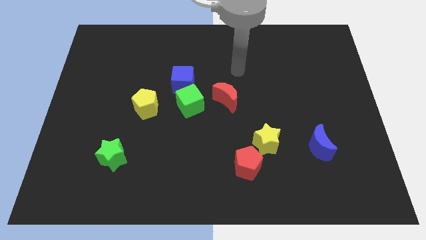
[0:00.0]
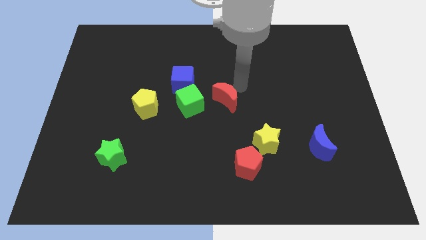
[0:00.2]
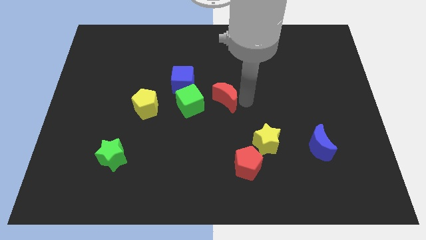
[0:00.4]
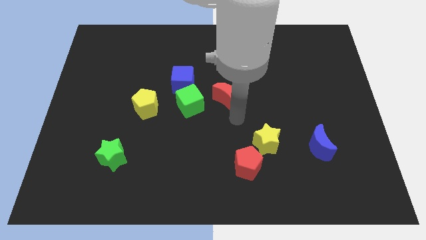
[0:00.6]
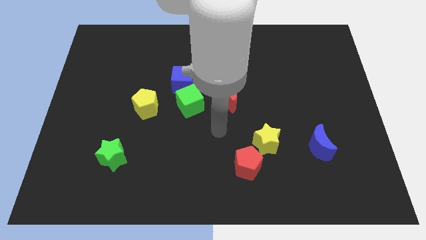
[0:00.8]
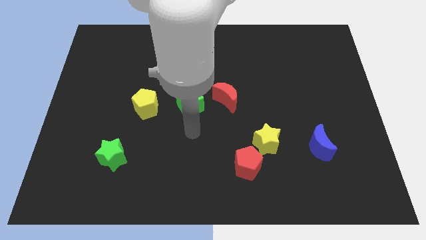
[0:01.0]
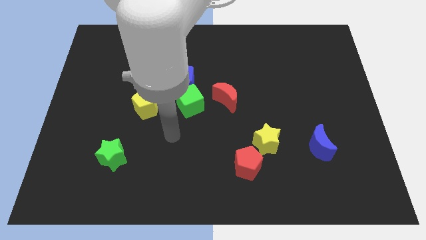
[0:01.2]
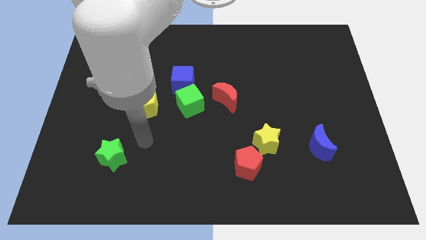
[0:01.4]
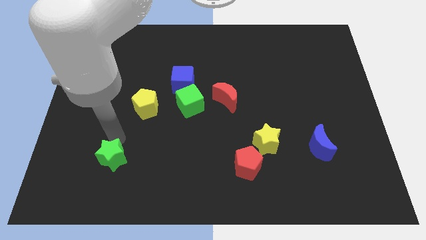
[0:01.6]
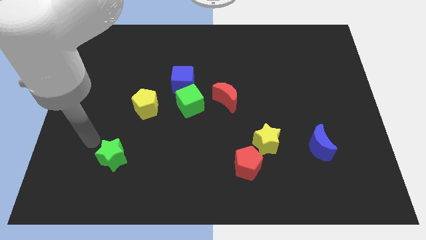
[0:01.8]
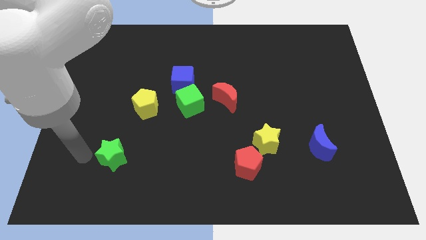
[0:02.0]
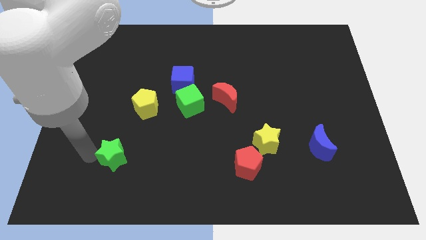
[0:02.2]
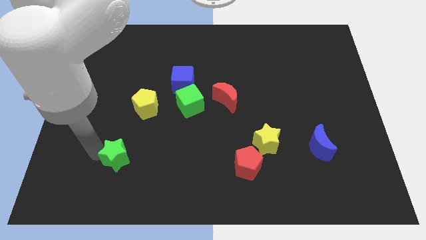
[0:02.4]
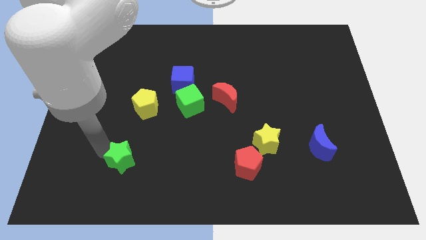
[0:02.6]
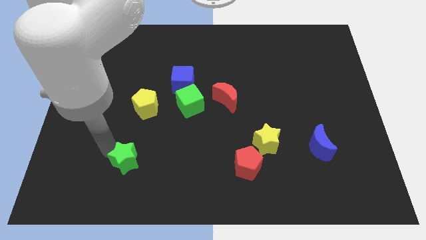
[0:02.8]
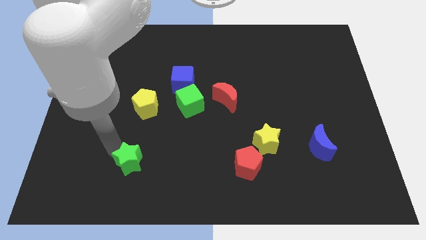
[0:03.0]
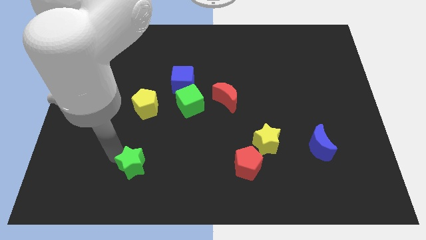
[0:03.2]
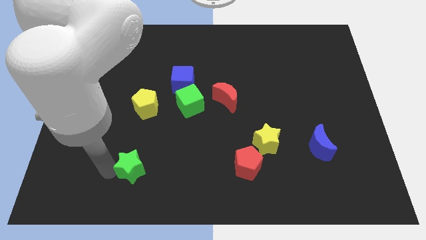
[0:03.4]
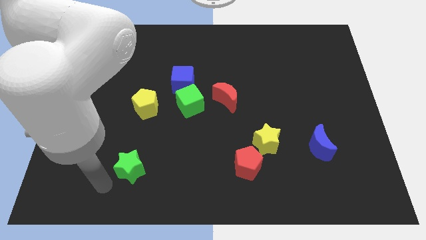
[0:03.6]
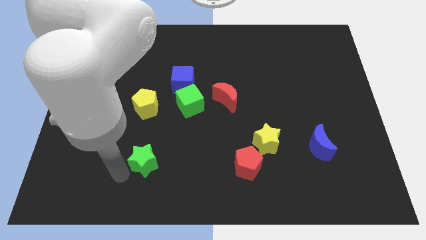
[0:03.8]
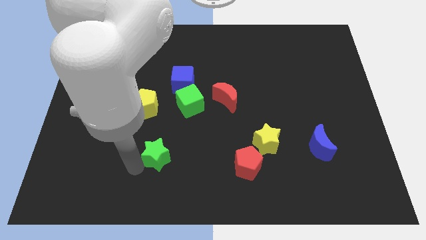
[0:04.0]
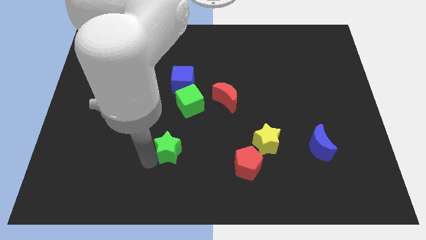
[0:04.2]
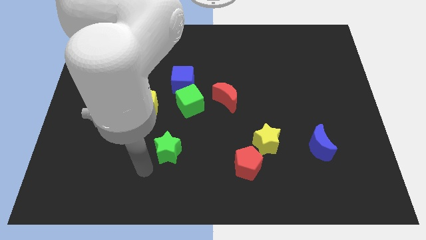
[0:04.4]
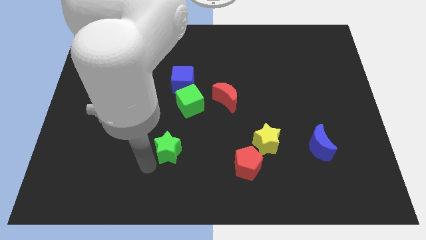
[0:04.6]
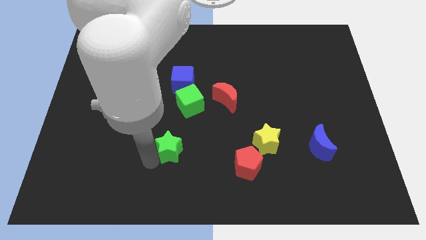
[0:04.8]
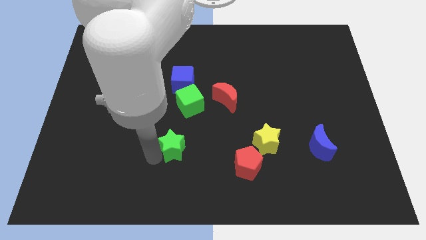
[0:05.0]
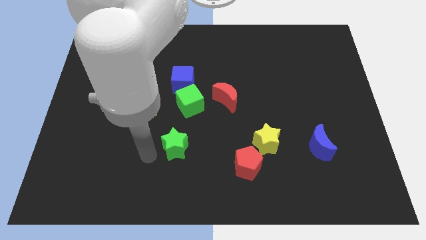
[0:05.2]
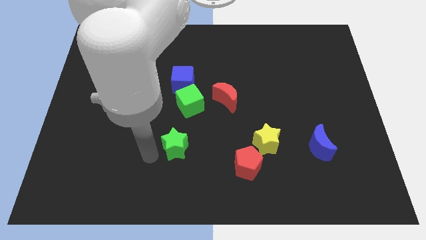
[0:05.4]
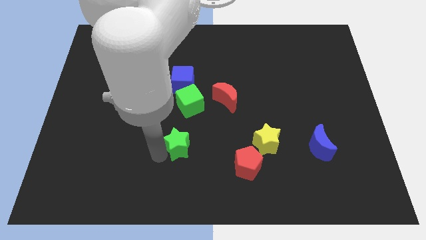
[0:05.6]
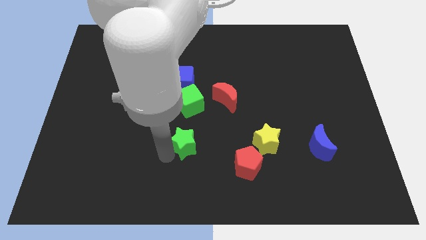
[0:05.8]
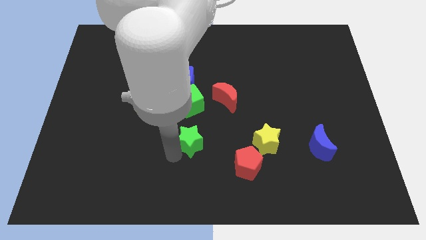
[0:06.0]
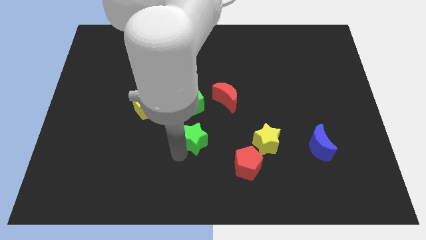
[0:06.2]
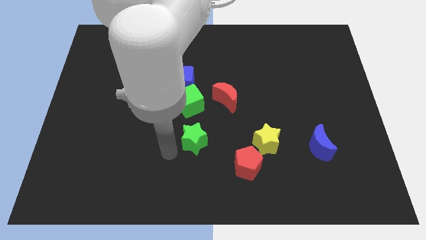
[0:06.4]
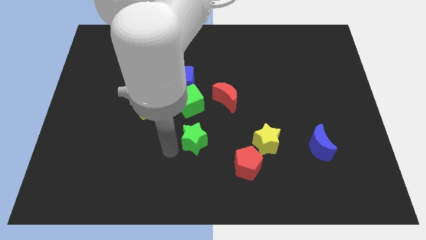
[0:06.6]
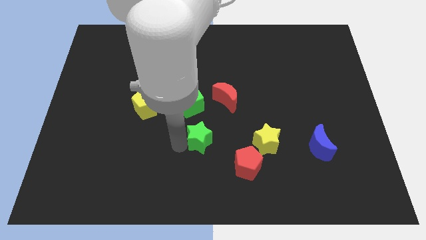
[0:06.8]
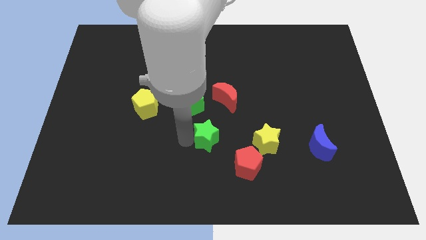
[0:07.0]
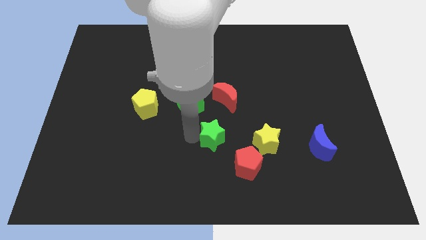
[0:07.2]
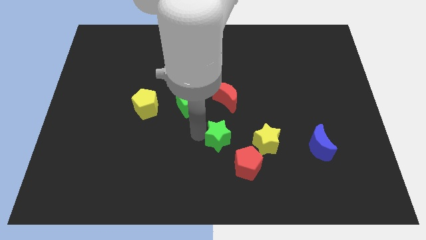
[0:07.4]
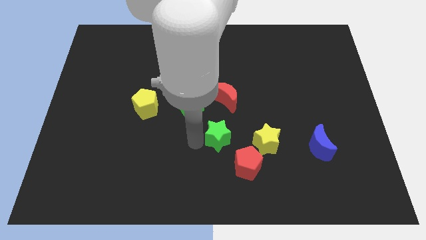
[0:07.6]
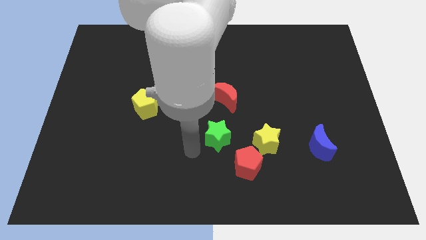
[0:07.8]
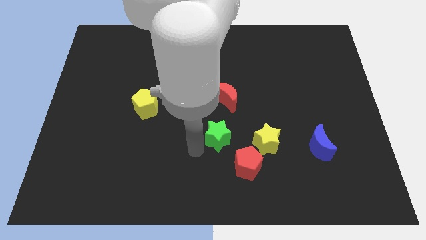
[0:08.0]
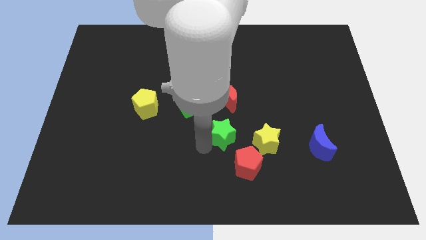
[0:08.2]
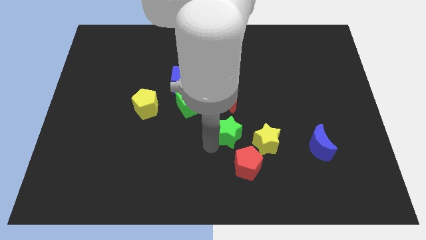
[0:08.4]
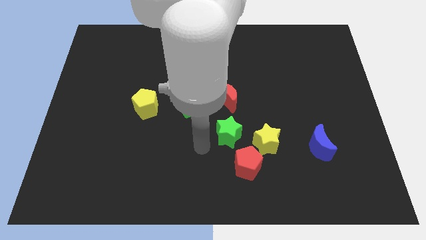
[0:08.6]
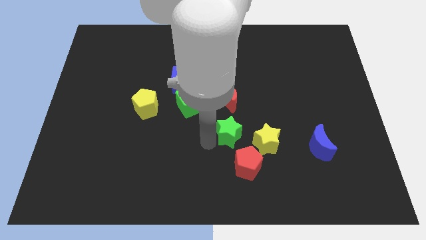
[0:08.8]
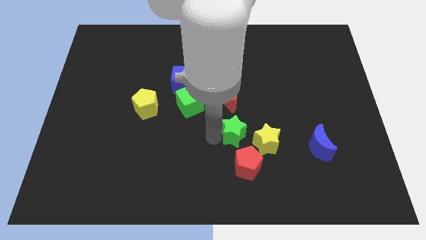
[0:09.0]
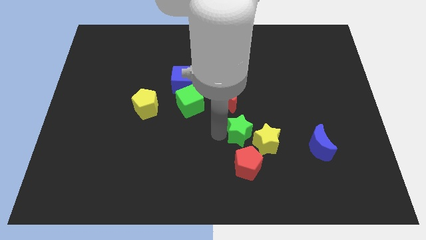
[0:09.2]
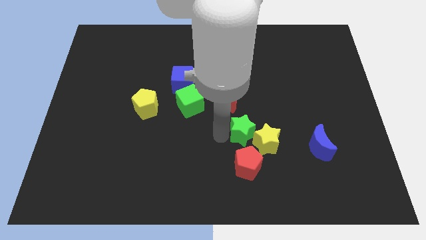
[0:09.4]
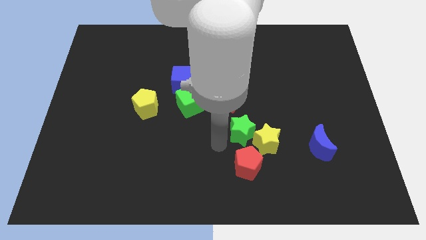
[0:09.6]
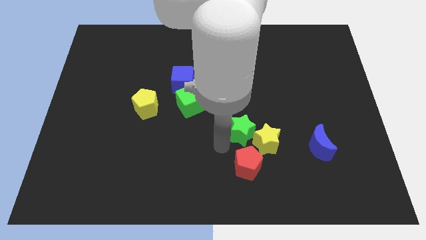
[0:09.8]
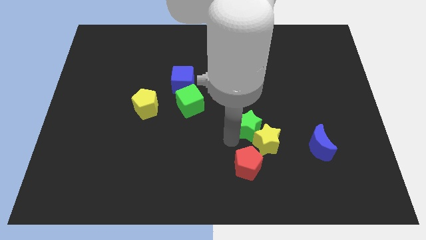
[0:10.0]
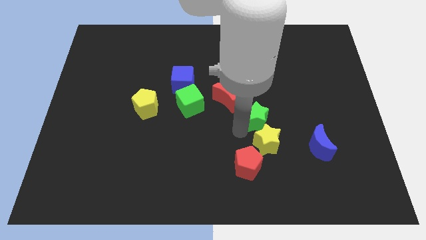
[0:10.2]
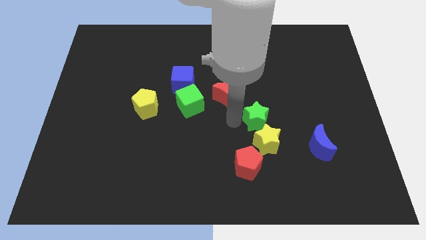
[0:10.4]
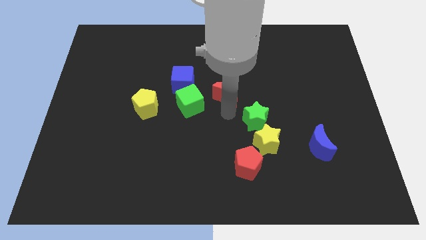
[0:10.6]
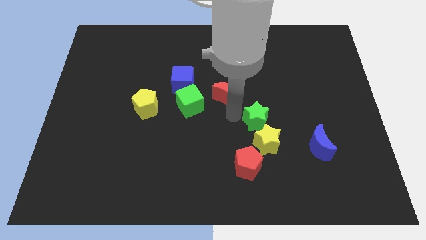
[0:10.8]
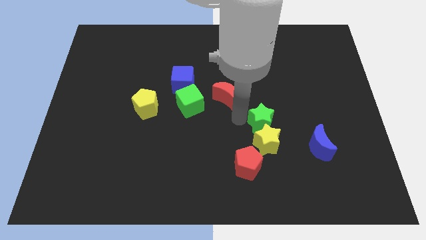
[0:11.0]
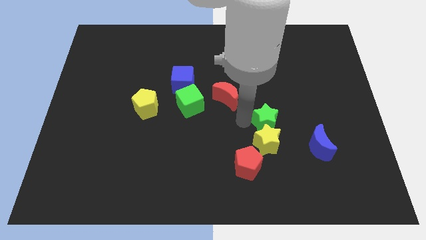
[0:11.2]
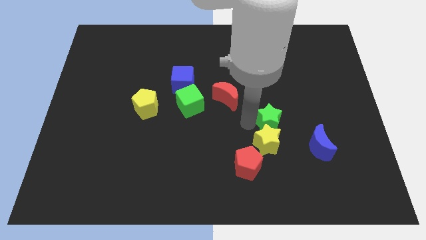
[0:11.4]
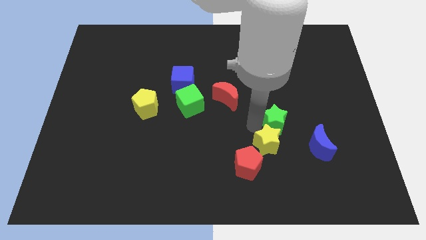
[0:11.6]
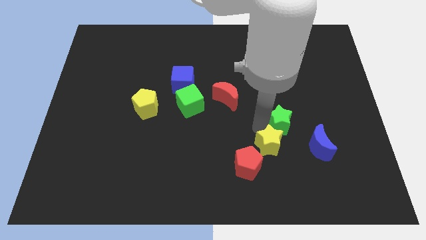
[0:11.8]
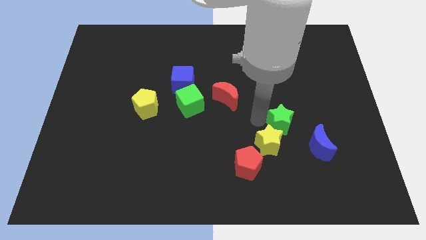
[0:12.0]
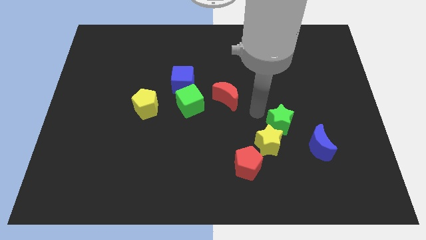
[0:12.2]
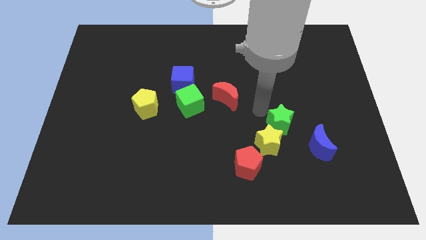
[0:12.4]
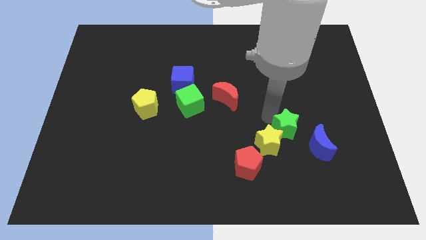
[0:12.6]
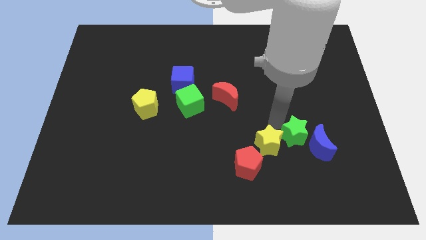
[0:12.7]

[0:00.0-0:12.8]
move the green star close to the blue moon
